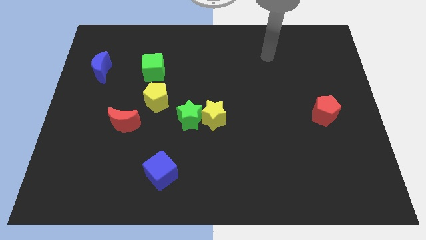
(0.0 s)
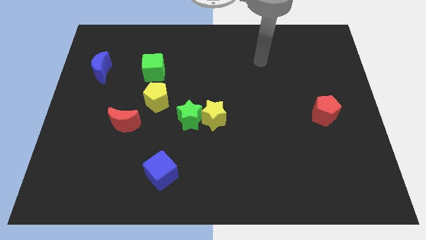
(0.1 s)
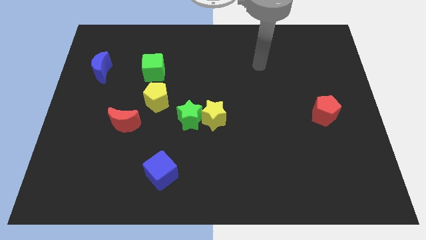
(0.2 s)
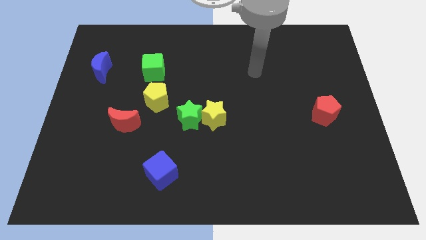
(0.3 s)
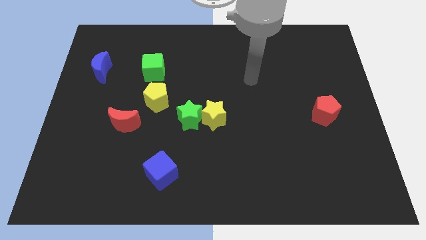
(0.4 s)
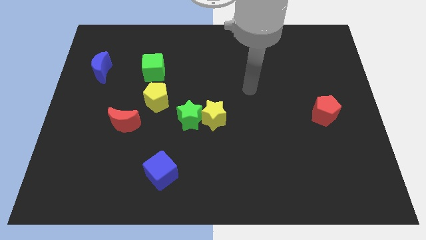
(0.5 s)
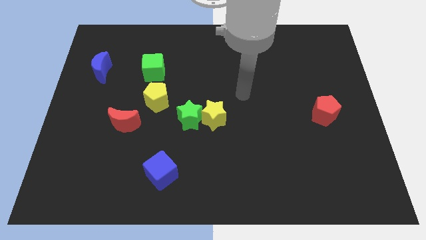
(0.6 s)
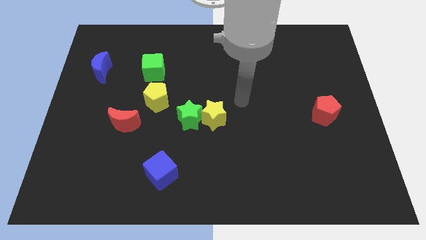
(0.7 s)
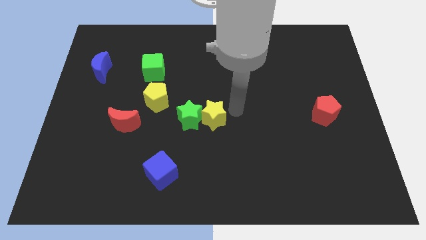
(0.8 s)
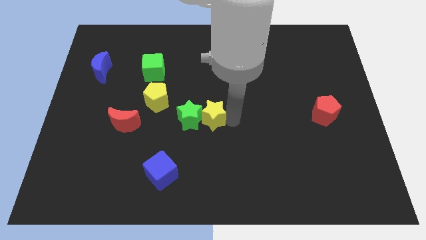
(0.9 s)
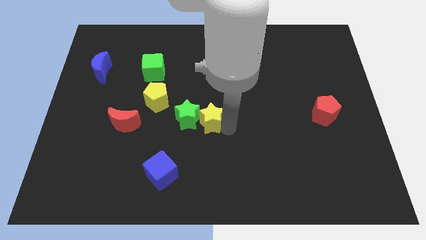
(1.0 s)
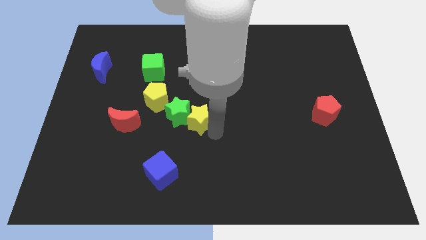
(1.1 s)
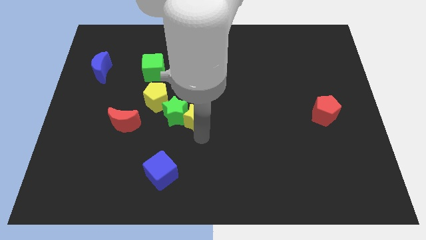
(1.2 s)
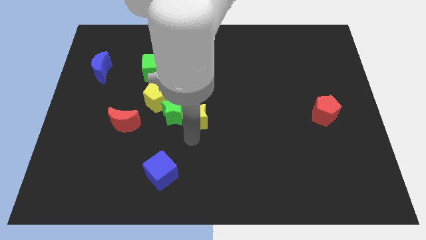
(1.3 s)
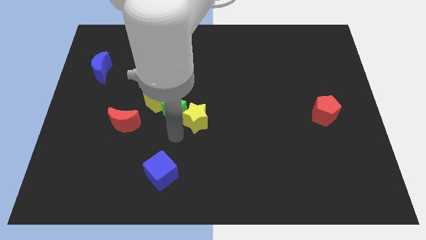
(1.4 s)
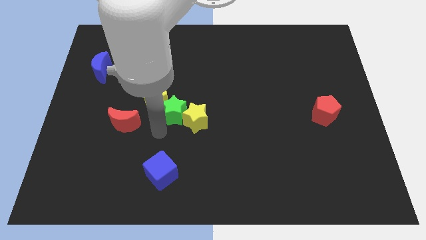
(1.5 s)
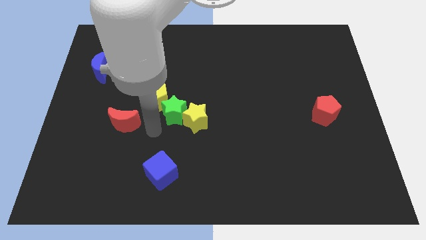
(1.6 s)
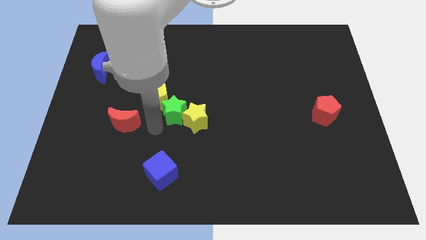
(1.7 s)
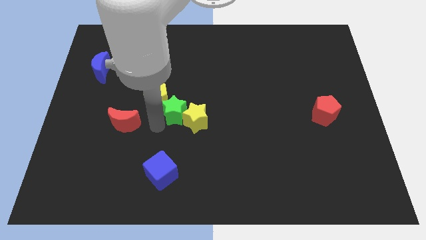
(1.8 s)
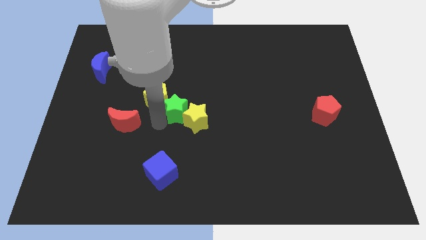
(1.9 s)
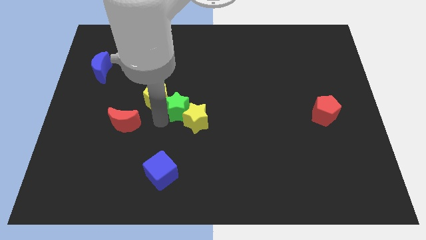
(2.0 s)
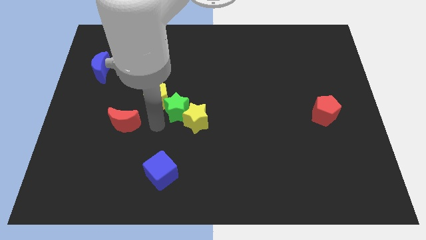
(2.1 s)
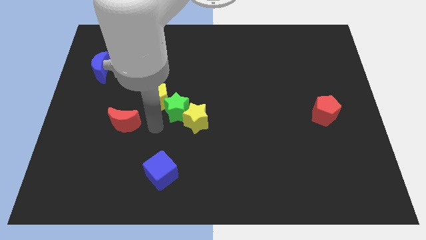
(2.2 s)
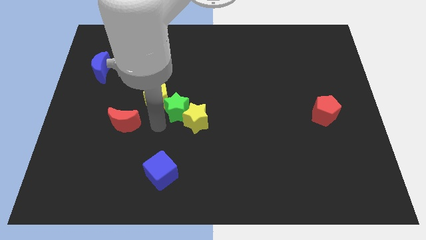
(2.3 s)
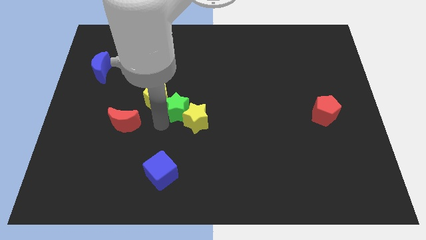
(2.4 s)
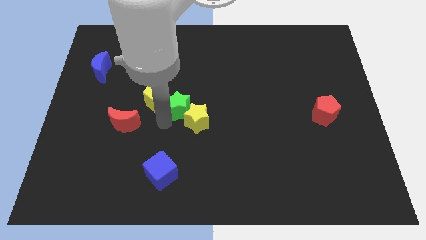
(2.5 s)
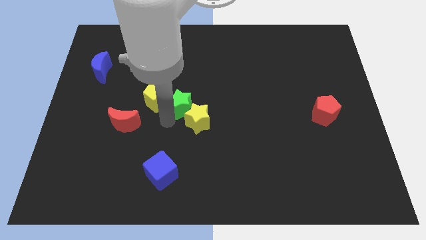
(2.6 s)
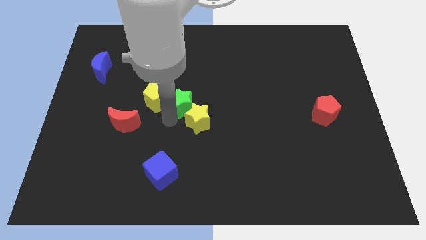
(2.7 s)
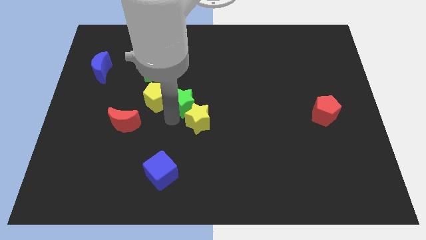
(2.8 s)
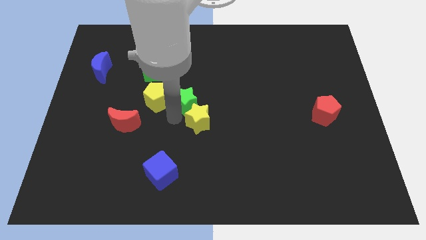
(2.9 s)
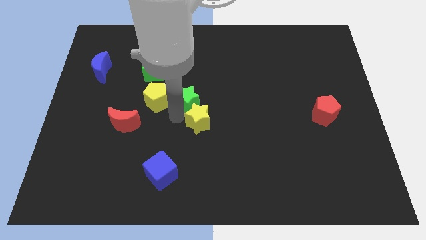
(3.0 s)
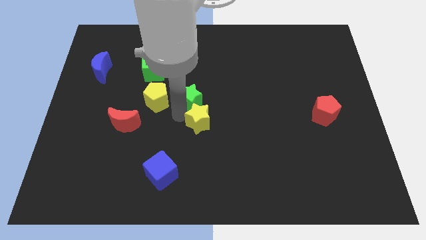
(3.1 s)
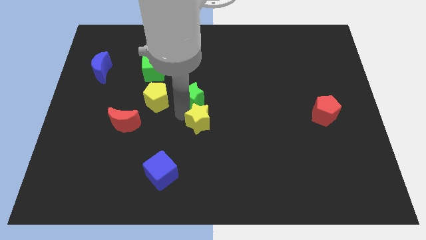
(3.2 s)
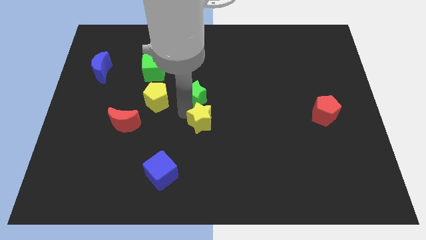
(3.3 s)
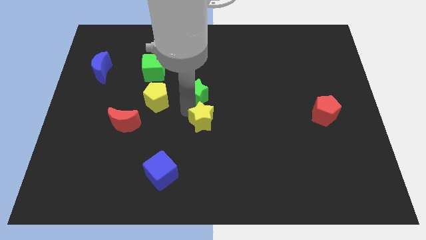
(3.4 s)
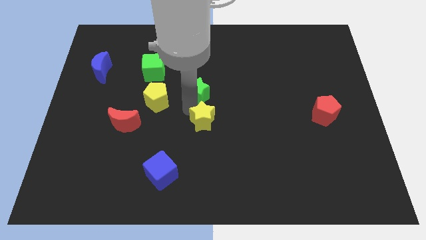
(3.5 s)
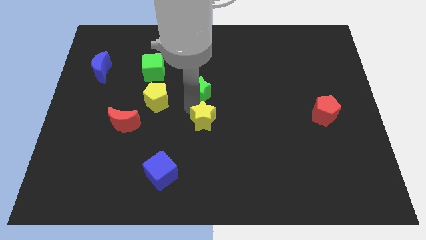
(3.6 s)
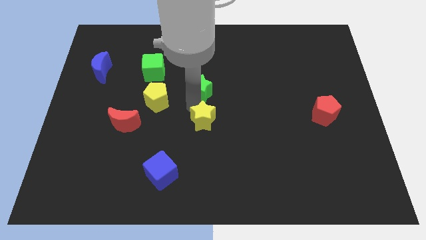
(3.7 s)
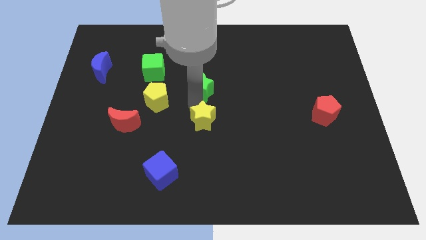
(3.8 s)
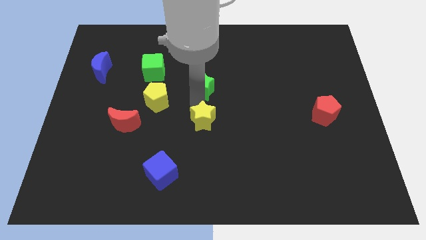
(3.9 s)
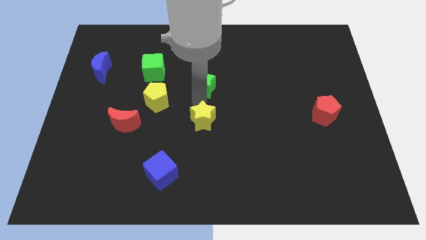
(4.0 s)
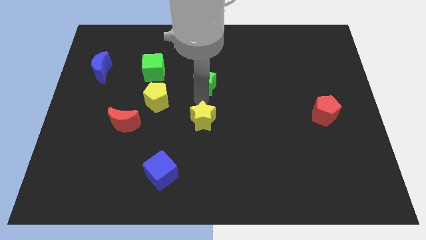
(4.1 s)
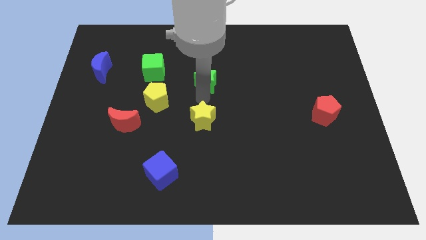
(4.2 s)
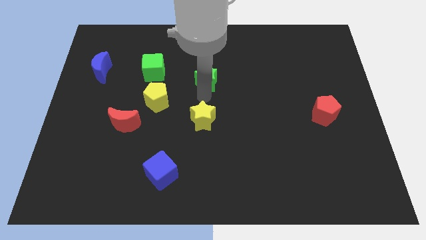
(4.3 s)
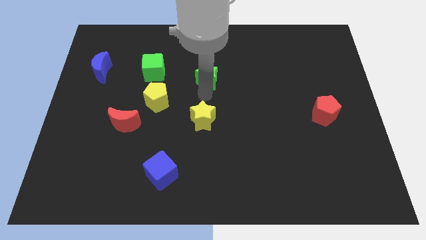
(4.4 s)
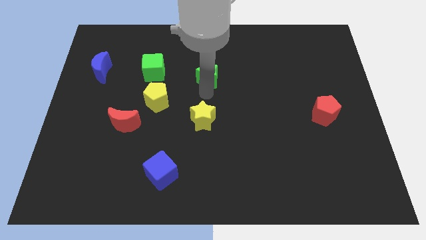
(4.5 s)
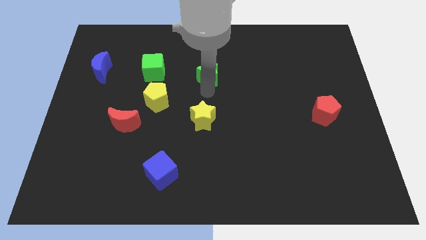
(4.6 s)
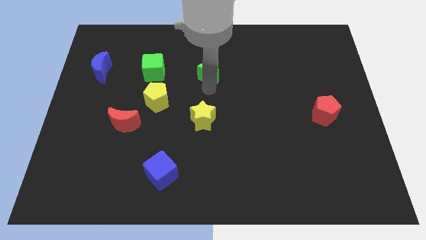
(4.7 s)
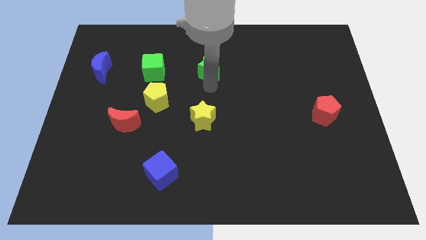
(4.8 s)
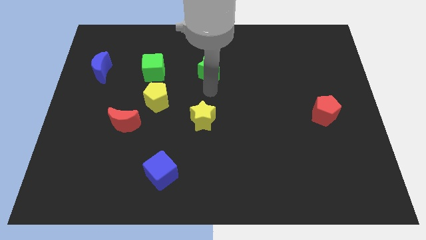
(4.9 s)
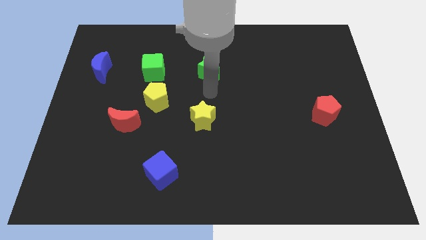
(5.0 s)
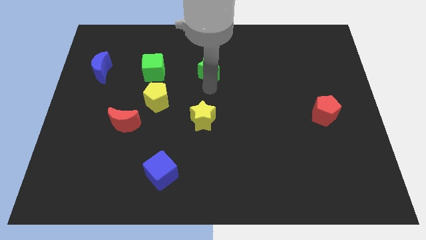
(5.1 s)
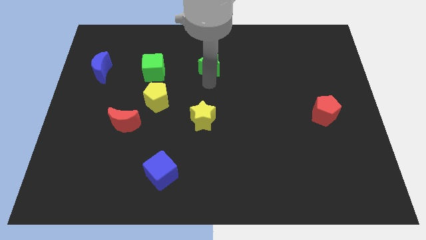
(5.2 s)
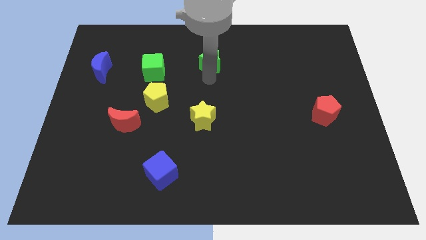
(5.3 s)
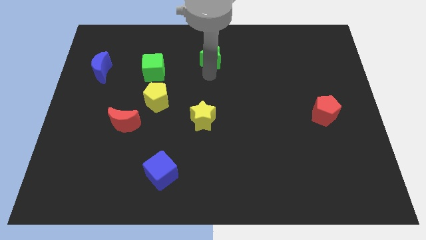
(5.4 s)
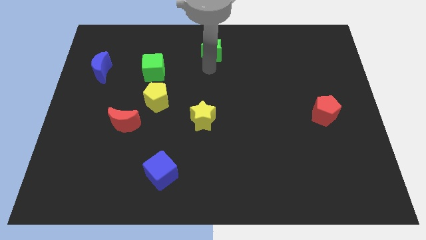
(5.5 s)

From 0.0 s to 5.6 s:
move the green star to the top
